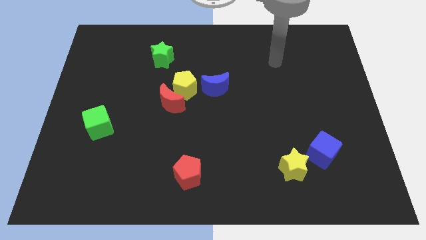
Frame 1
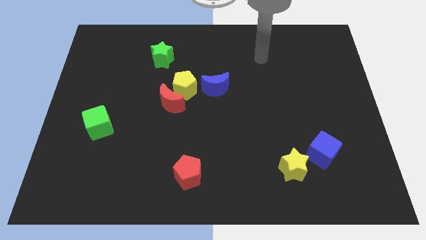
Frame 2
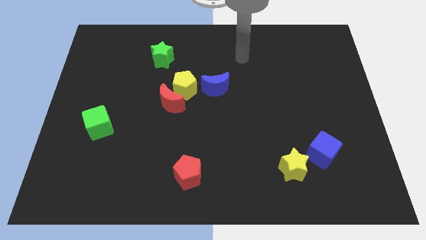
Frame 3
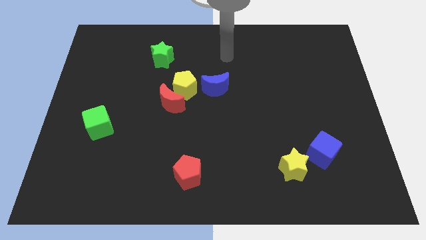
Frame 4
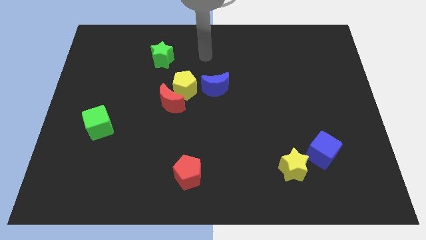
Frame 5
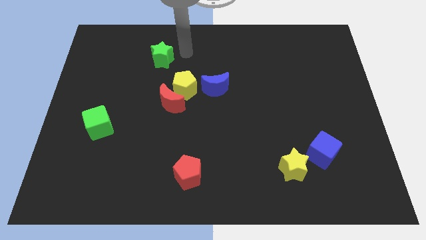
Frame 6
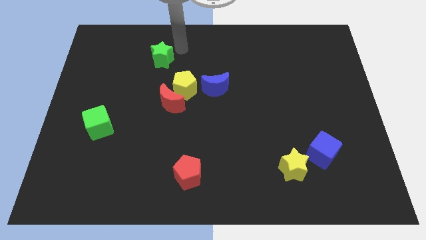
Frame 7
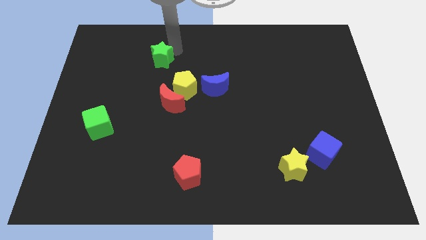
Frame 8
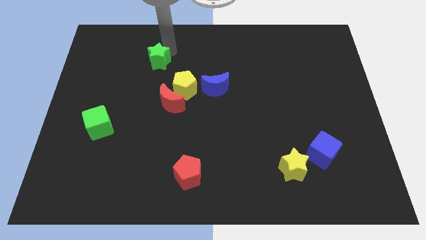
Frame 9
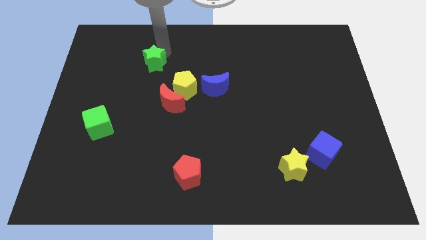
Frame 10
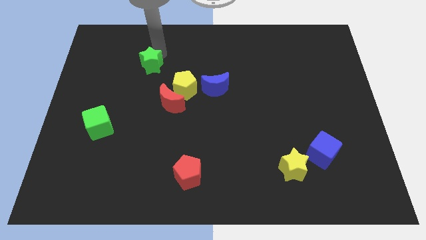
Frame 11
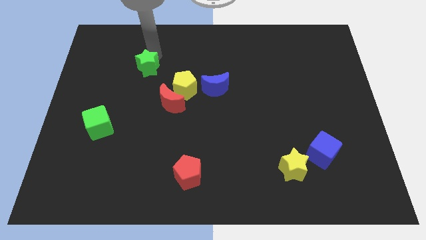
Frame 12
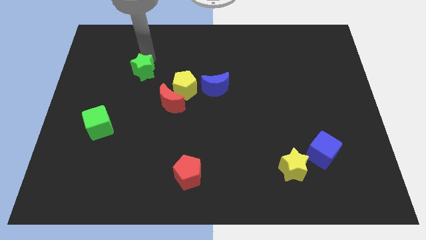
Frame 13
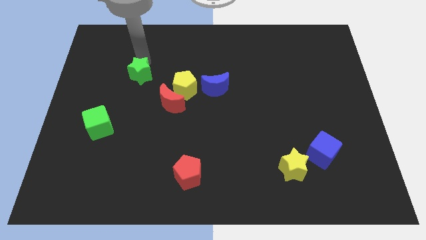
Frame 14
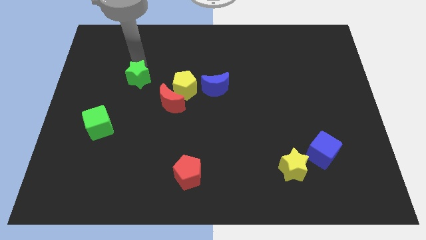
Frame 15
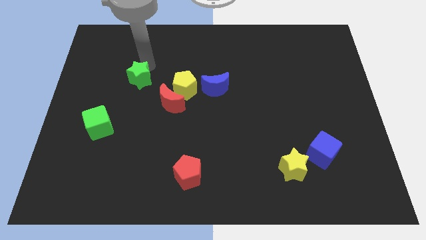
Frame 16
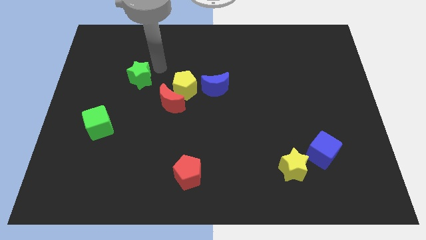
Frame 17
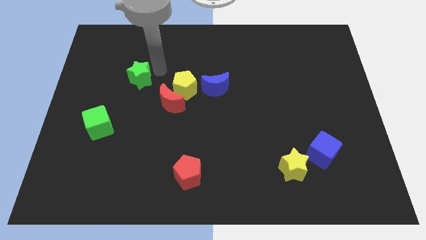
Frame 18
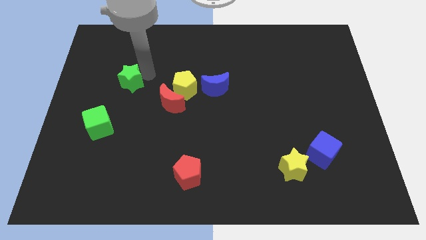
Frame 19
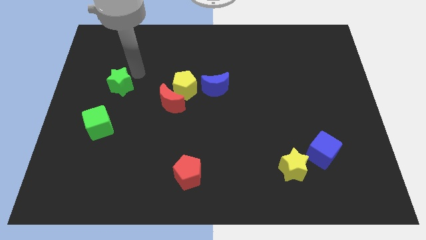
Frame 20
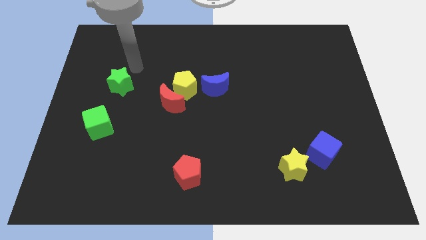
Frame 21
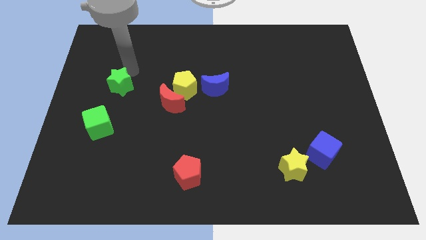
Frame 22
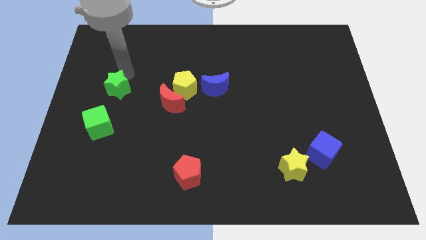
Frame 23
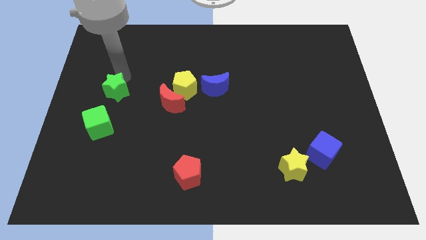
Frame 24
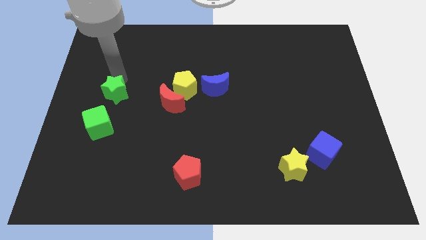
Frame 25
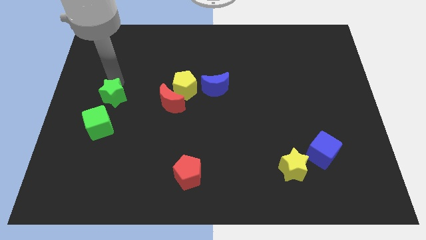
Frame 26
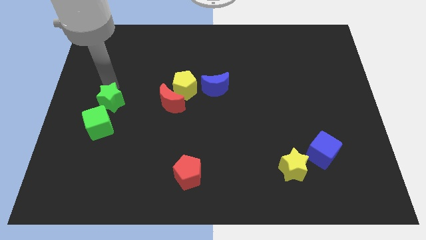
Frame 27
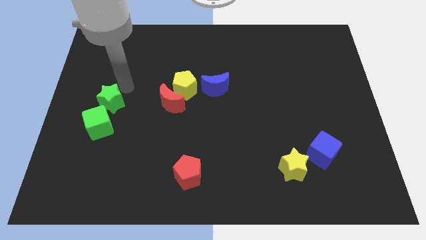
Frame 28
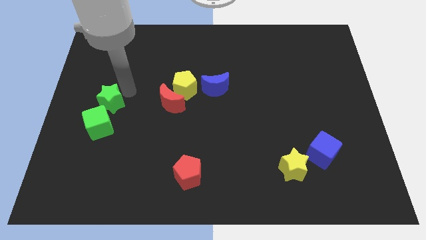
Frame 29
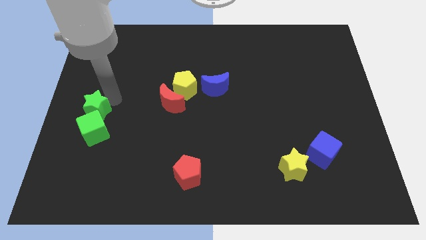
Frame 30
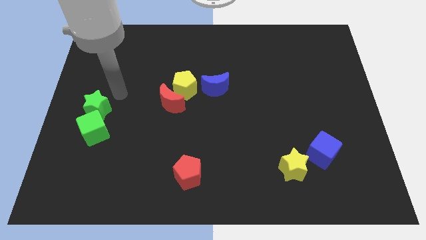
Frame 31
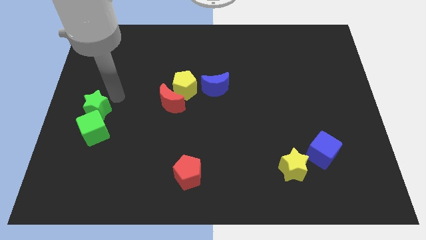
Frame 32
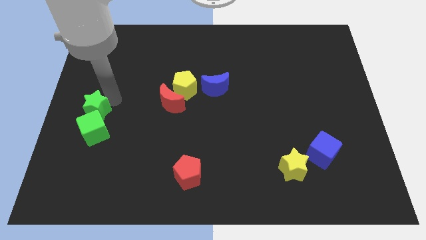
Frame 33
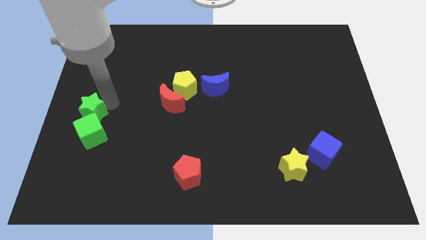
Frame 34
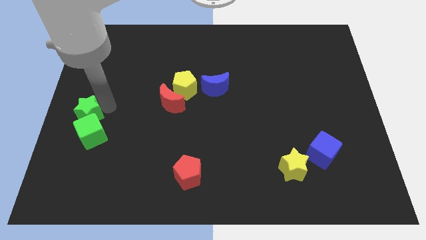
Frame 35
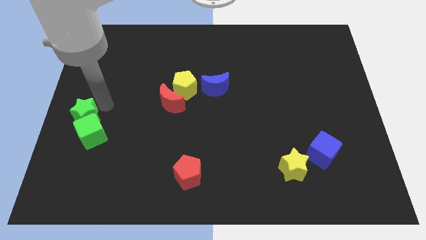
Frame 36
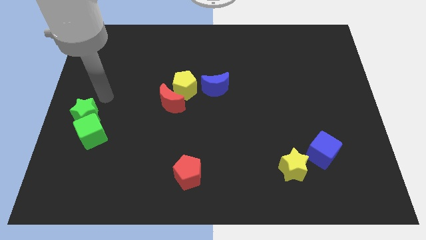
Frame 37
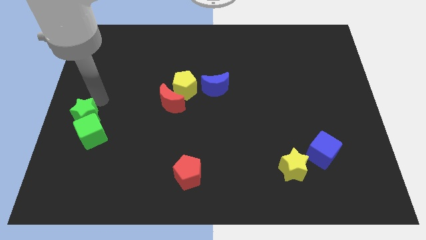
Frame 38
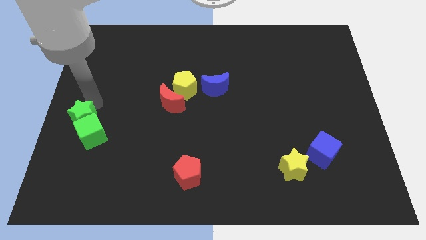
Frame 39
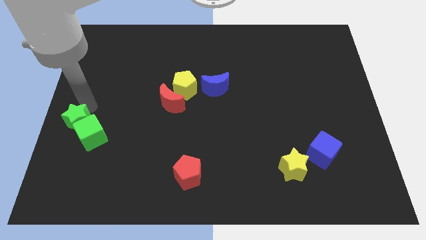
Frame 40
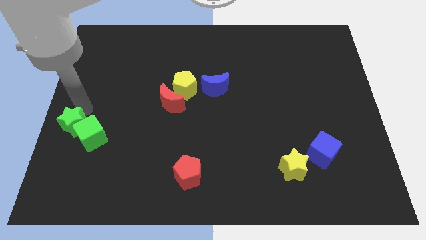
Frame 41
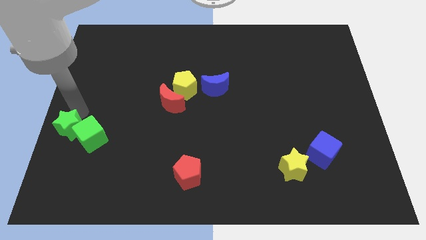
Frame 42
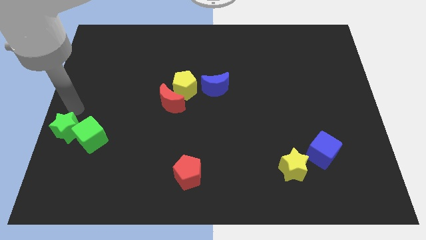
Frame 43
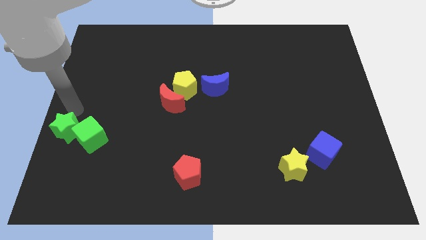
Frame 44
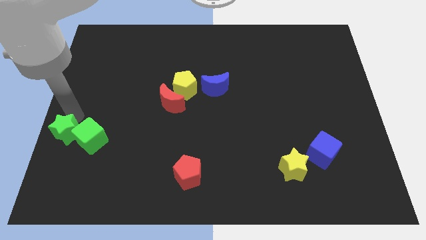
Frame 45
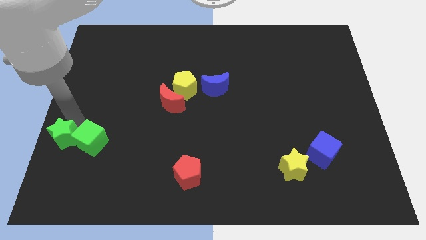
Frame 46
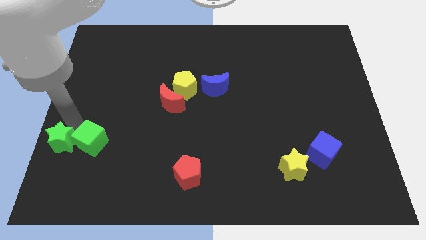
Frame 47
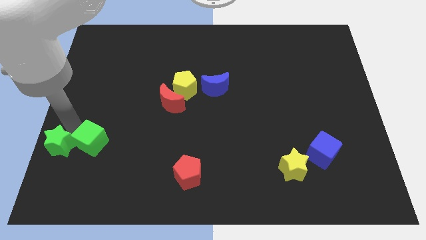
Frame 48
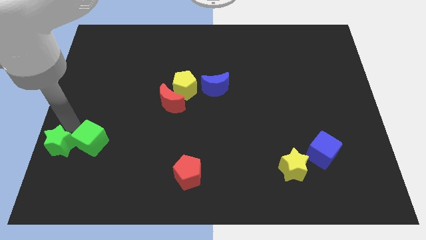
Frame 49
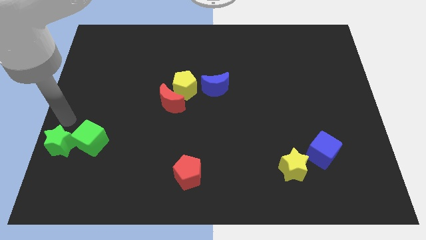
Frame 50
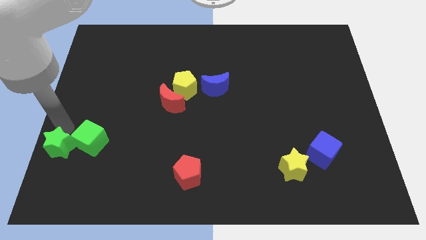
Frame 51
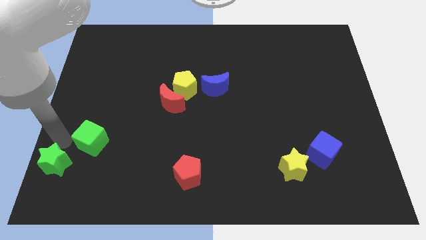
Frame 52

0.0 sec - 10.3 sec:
slide the green star to the bottom left corner

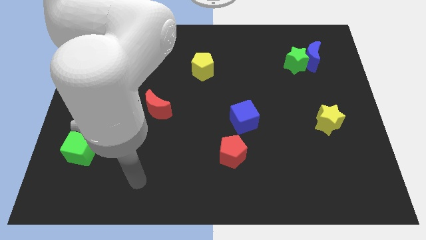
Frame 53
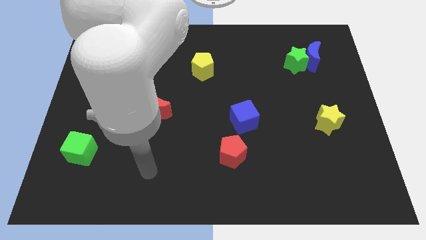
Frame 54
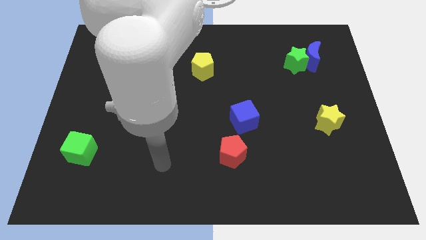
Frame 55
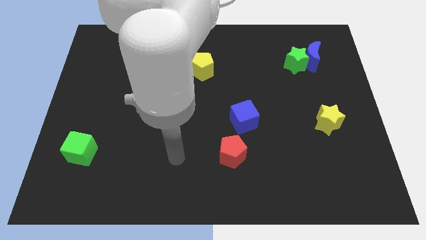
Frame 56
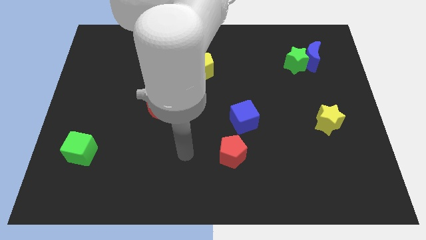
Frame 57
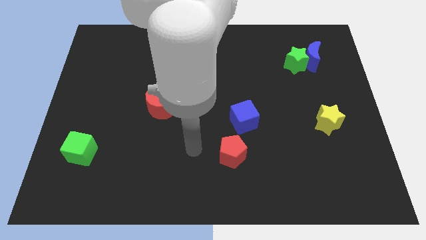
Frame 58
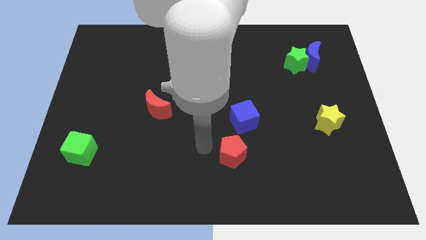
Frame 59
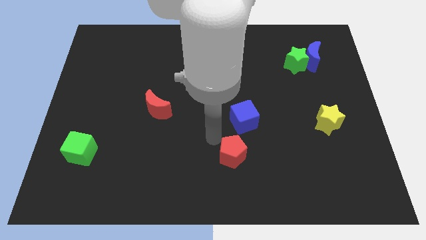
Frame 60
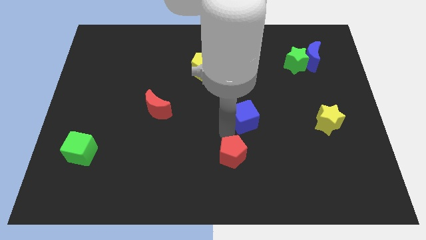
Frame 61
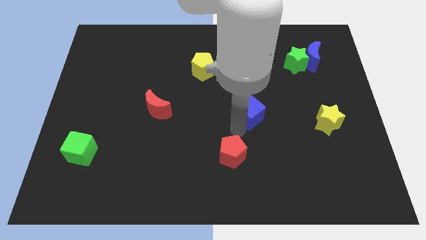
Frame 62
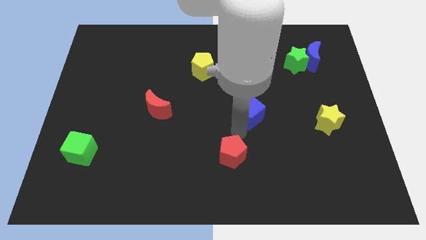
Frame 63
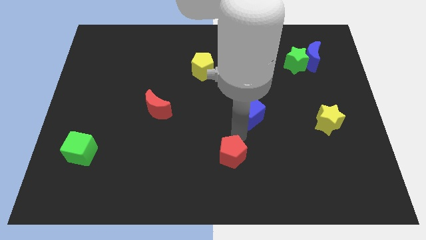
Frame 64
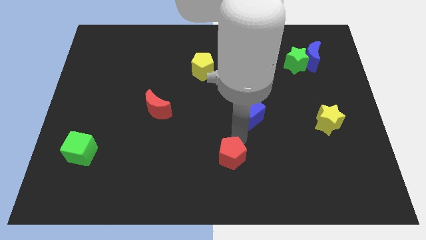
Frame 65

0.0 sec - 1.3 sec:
slide the red pentagon to the bottom
